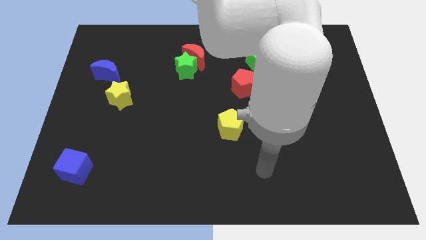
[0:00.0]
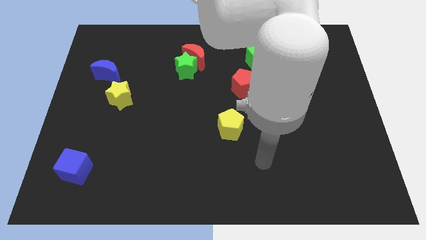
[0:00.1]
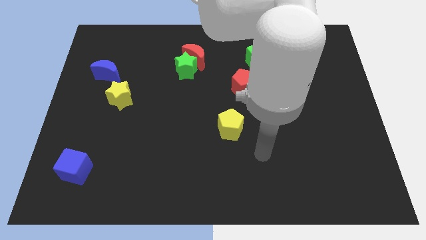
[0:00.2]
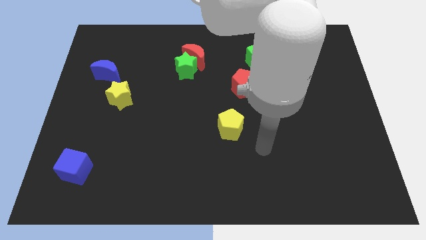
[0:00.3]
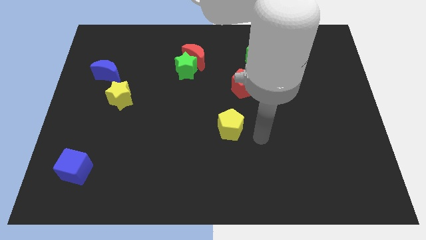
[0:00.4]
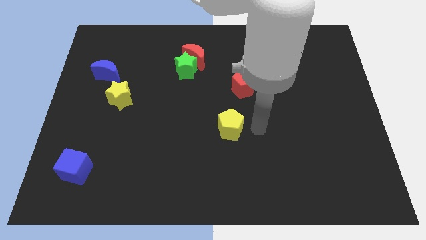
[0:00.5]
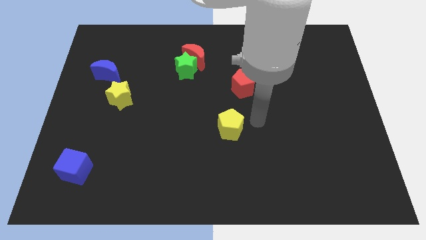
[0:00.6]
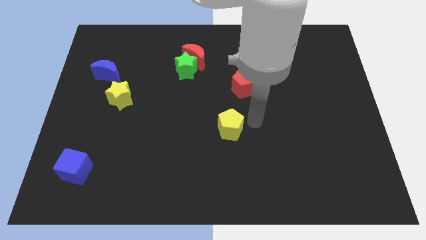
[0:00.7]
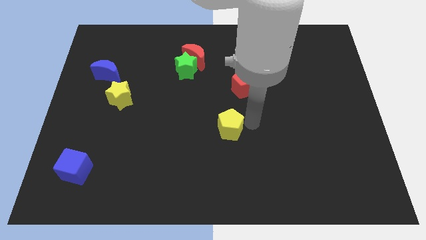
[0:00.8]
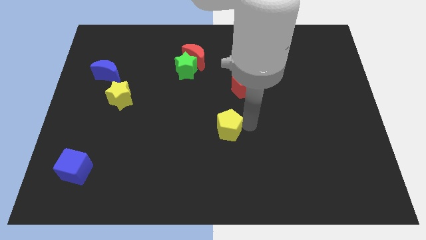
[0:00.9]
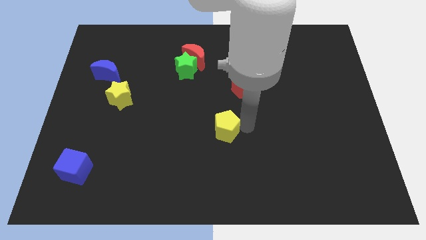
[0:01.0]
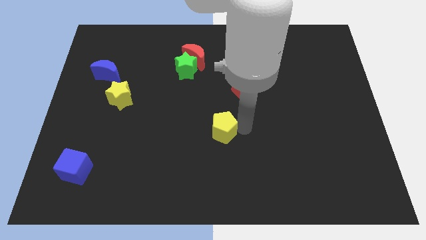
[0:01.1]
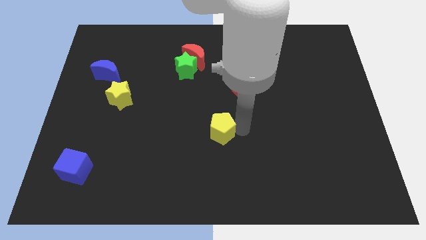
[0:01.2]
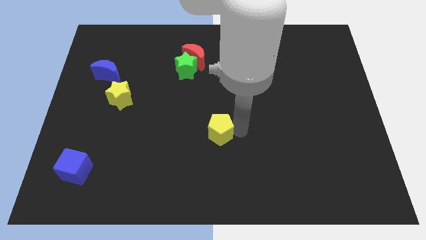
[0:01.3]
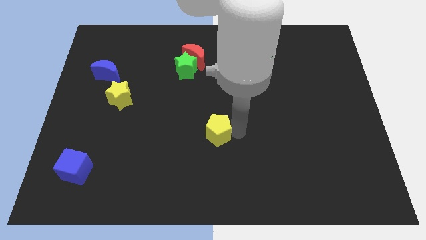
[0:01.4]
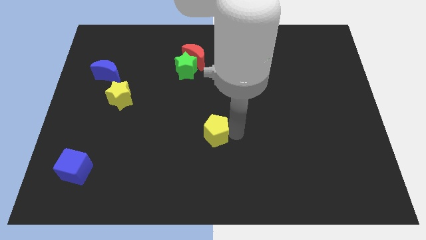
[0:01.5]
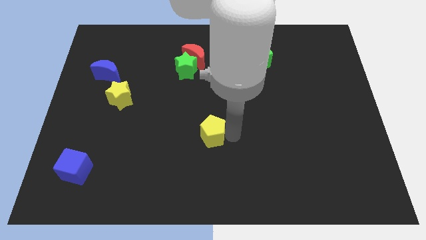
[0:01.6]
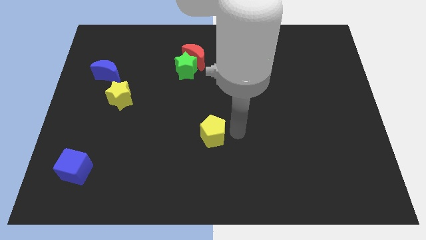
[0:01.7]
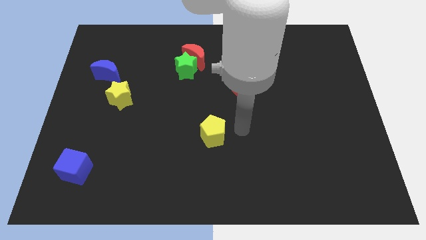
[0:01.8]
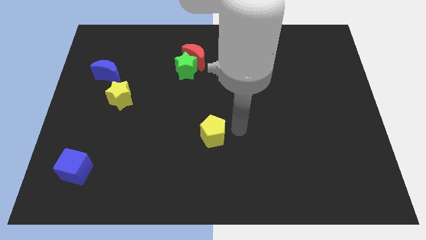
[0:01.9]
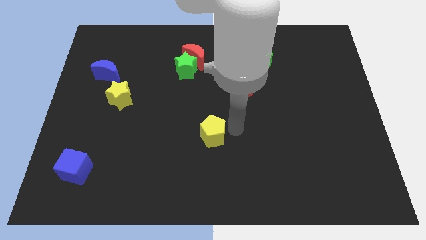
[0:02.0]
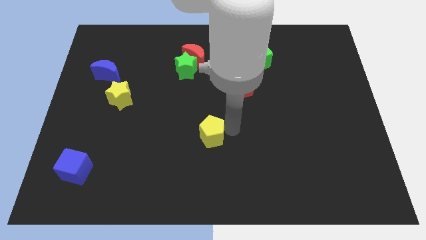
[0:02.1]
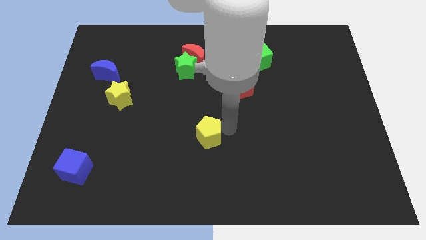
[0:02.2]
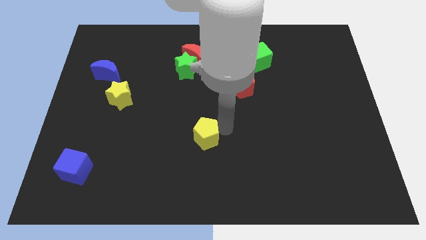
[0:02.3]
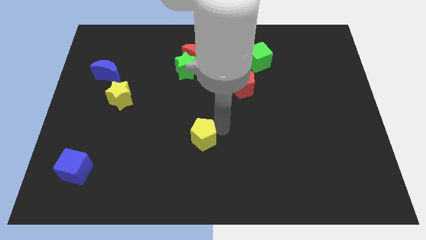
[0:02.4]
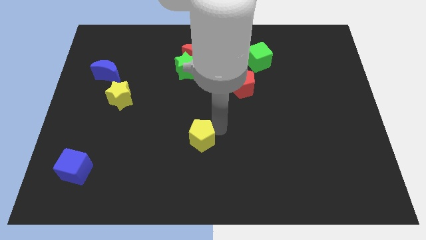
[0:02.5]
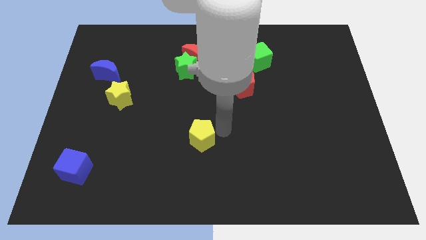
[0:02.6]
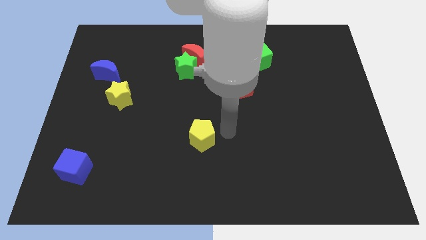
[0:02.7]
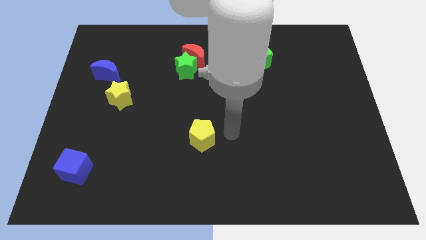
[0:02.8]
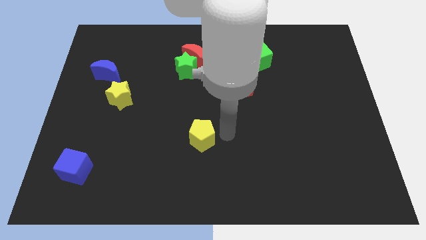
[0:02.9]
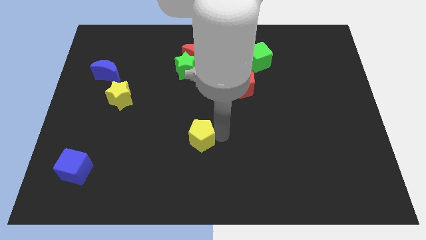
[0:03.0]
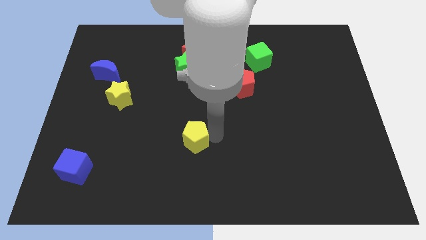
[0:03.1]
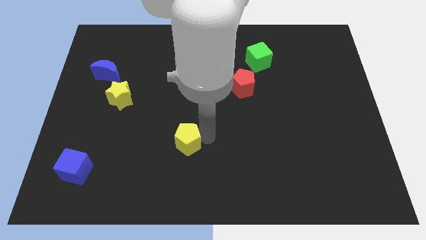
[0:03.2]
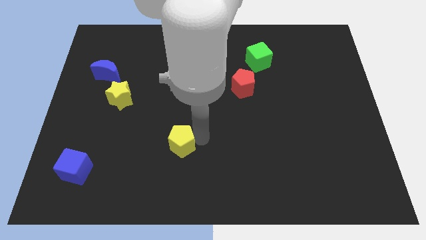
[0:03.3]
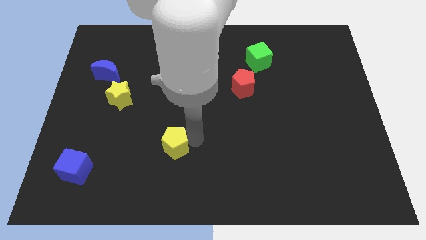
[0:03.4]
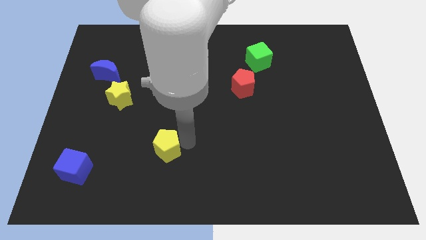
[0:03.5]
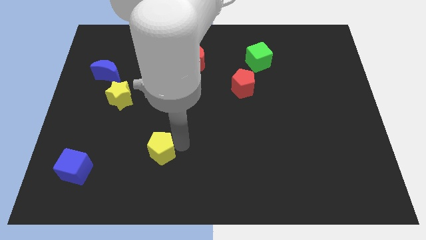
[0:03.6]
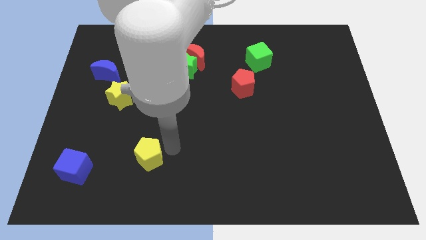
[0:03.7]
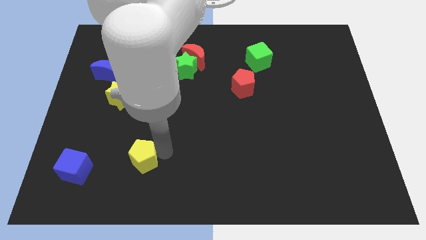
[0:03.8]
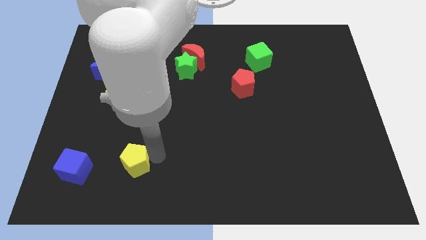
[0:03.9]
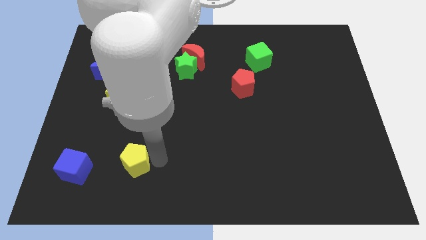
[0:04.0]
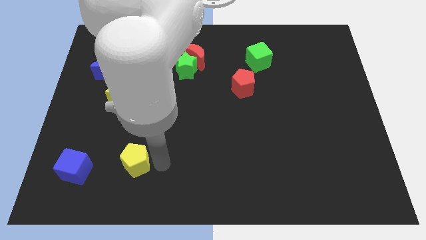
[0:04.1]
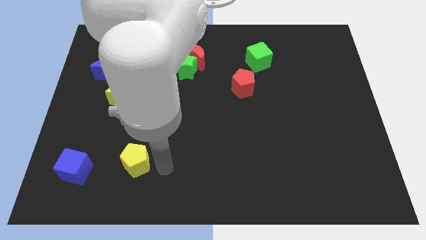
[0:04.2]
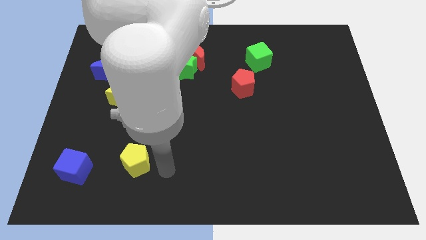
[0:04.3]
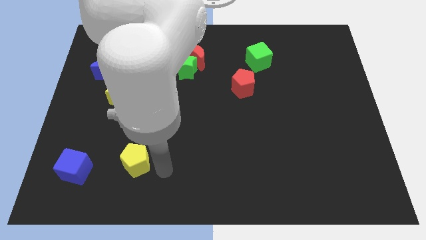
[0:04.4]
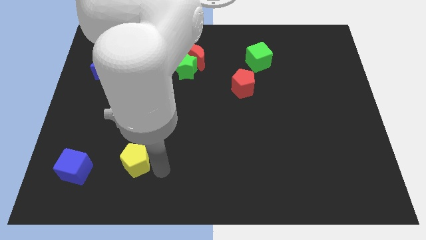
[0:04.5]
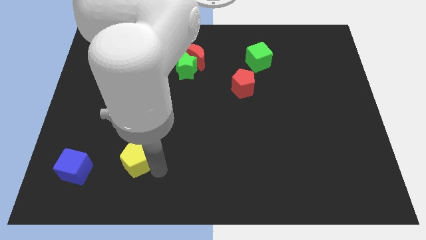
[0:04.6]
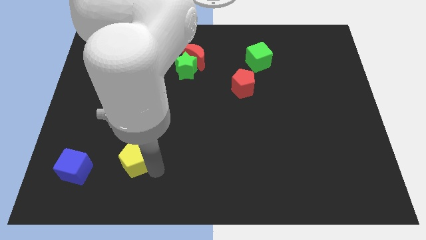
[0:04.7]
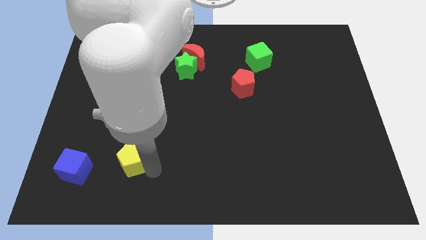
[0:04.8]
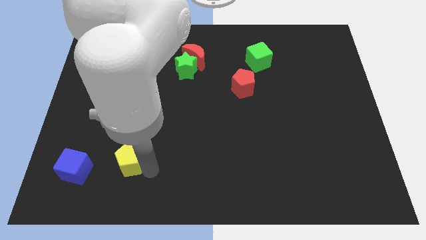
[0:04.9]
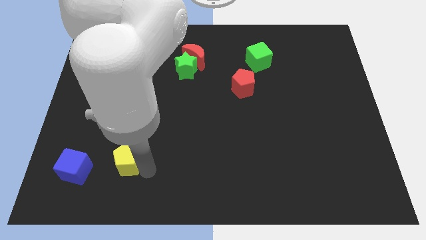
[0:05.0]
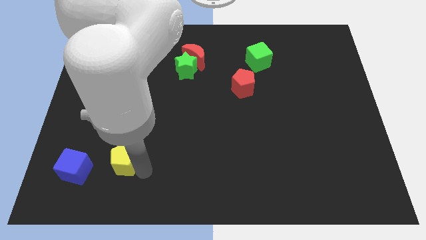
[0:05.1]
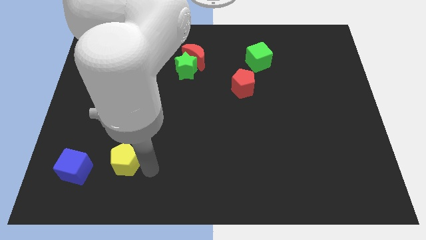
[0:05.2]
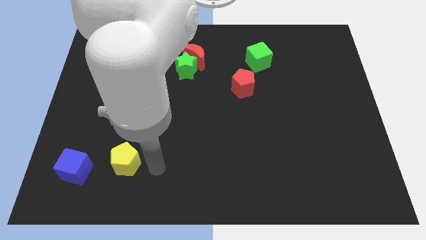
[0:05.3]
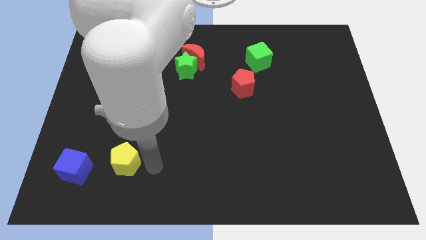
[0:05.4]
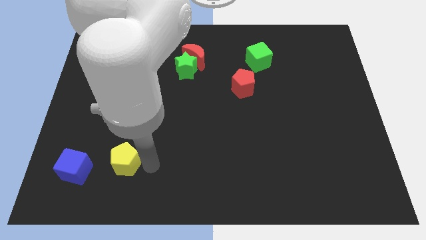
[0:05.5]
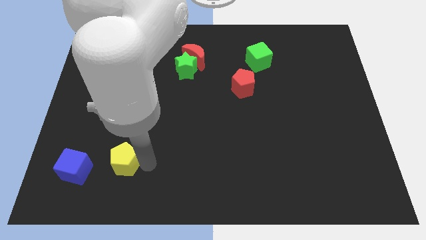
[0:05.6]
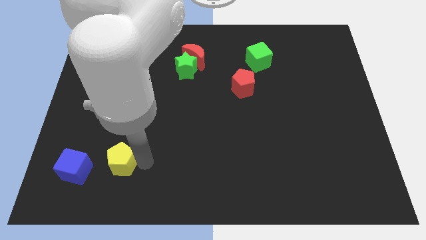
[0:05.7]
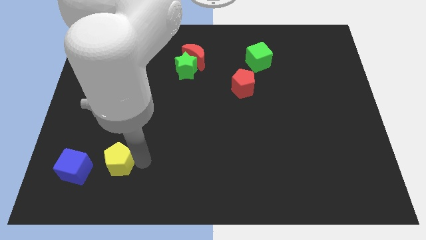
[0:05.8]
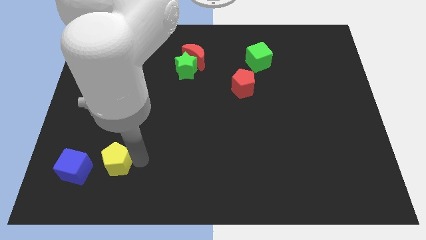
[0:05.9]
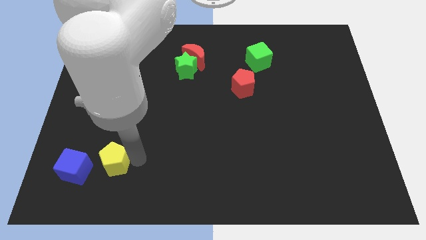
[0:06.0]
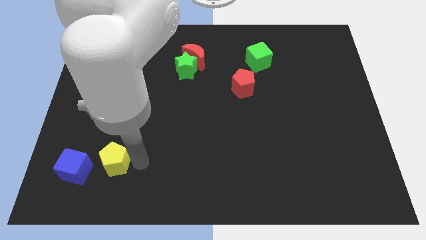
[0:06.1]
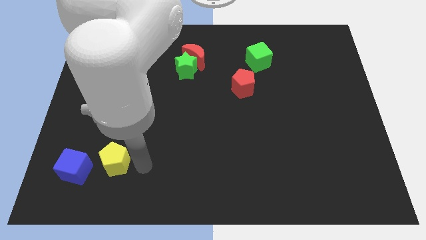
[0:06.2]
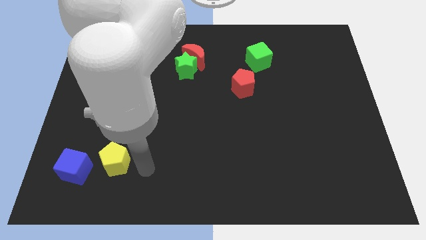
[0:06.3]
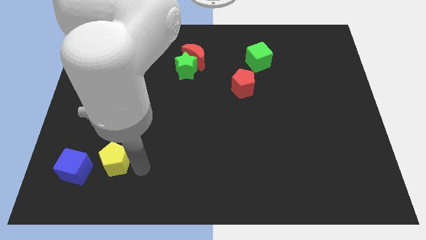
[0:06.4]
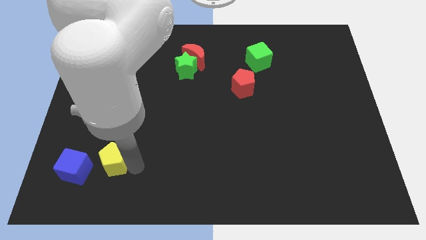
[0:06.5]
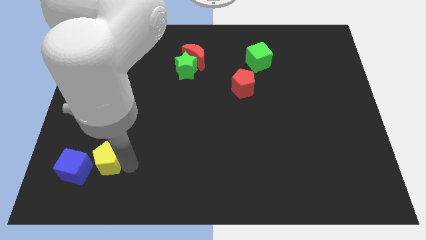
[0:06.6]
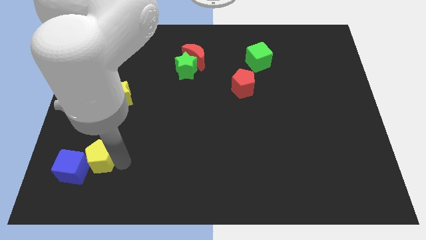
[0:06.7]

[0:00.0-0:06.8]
slide the yellow pentagon next to the blue cube

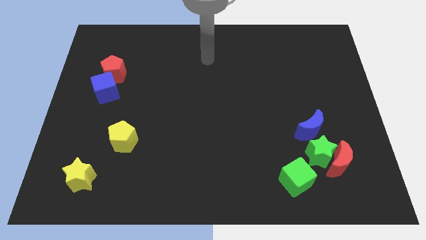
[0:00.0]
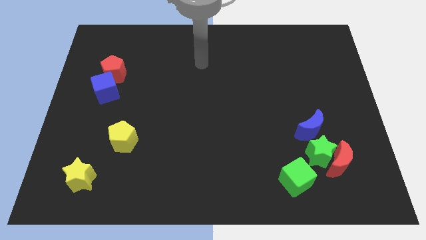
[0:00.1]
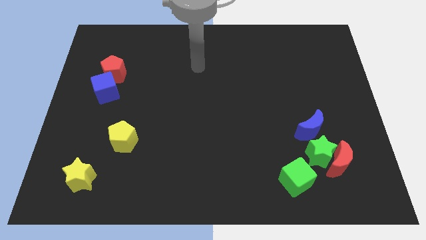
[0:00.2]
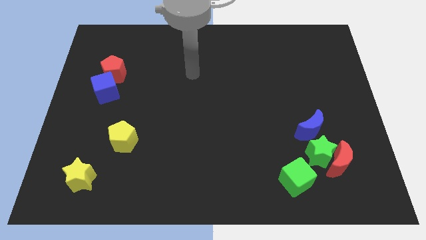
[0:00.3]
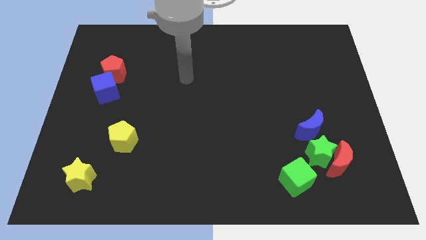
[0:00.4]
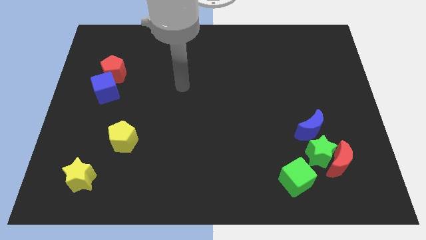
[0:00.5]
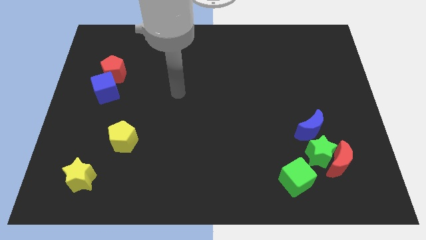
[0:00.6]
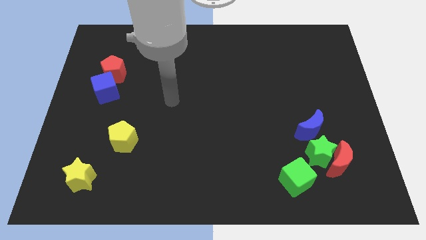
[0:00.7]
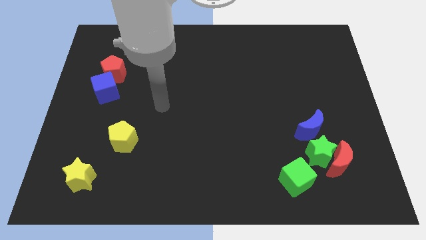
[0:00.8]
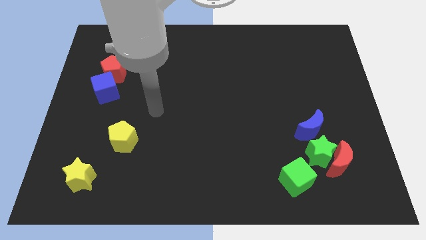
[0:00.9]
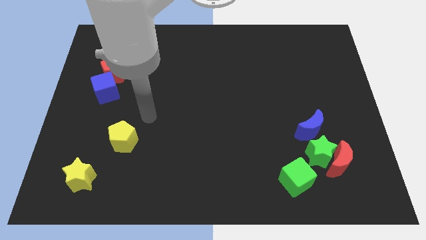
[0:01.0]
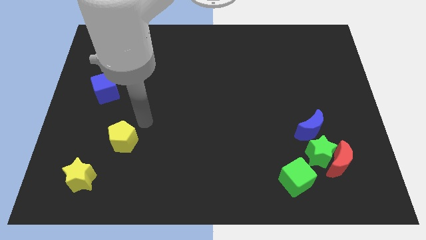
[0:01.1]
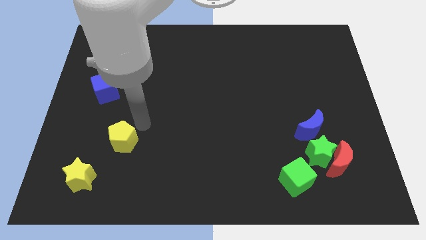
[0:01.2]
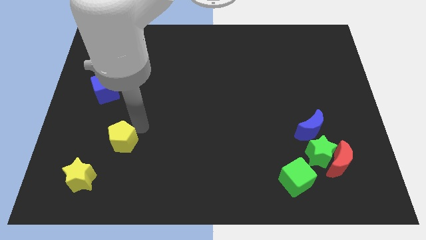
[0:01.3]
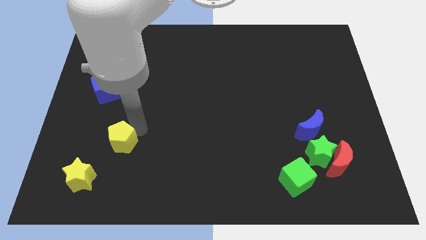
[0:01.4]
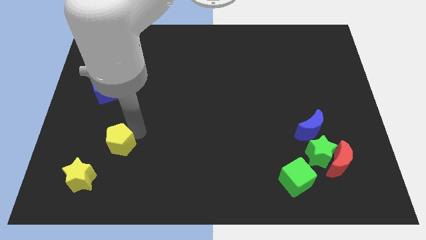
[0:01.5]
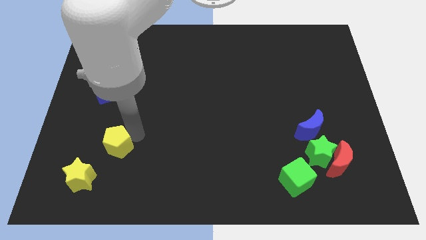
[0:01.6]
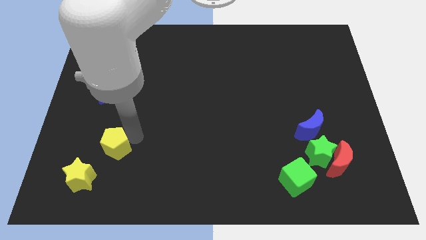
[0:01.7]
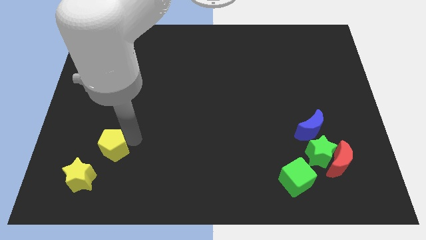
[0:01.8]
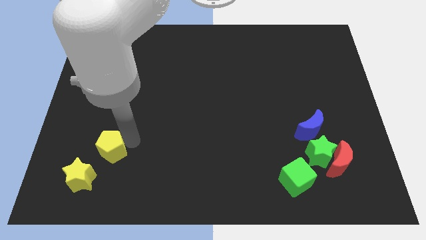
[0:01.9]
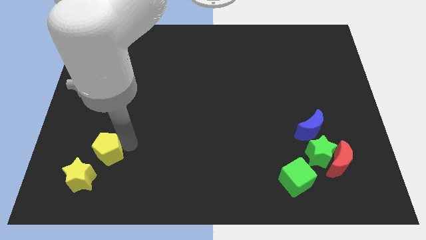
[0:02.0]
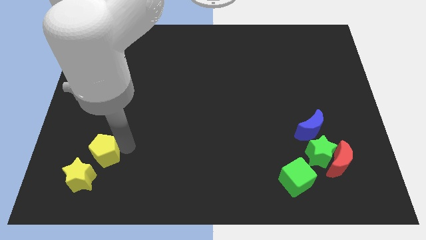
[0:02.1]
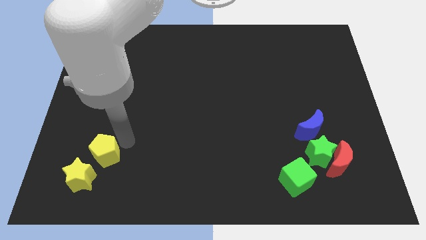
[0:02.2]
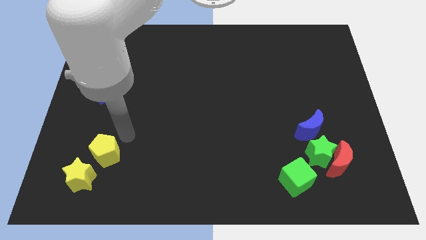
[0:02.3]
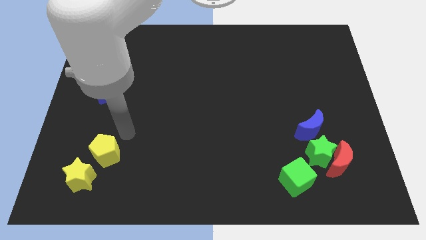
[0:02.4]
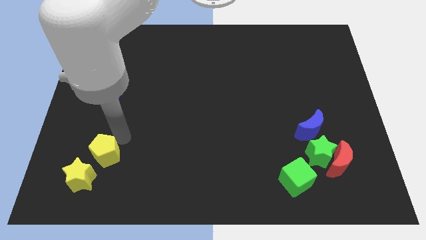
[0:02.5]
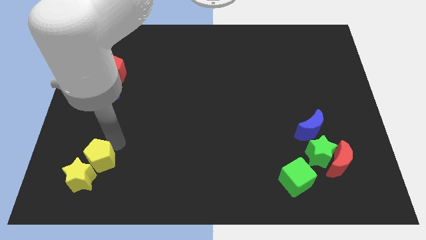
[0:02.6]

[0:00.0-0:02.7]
push the yellow pentagon to the yellow star
